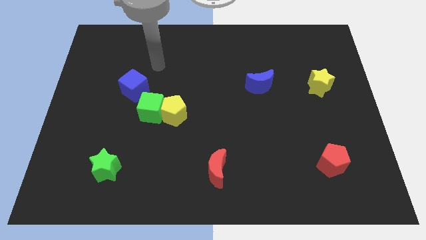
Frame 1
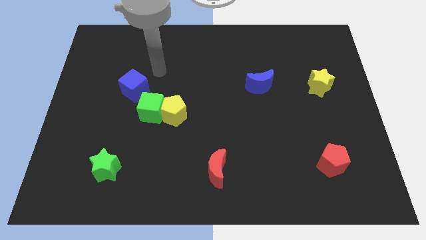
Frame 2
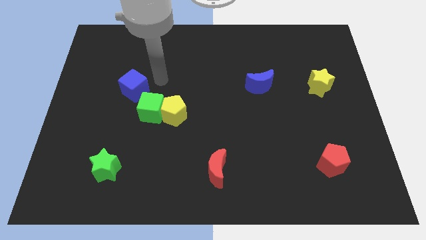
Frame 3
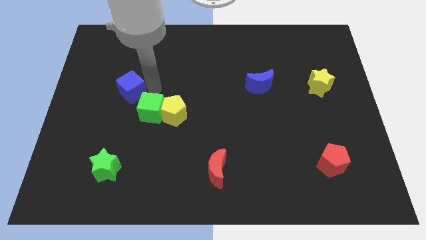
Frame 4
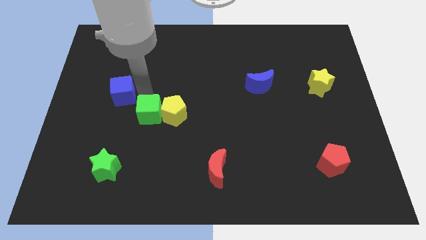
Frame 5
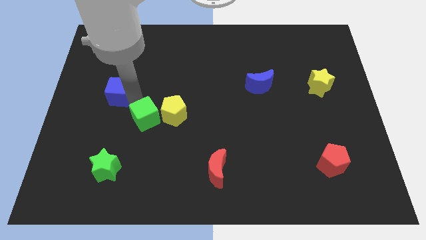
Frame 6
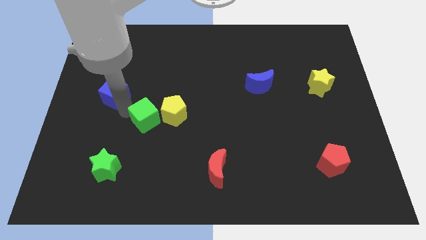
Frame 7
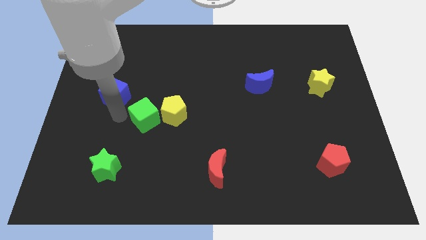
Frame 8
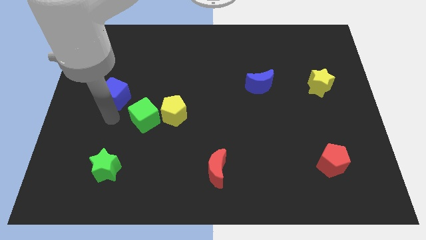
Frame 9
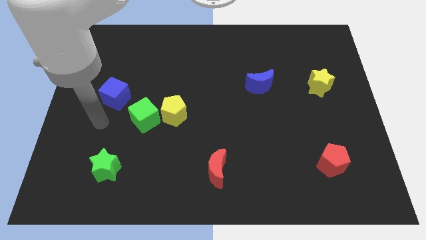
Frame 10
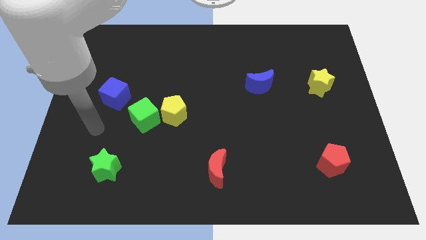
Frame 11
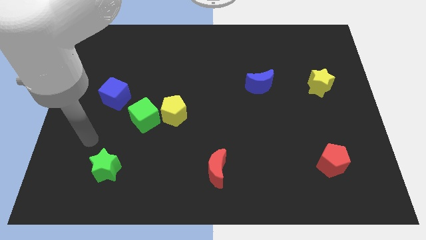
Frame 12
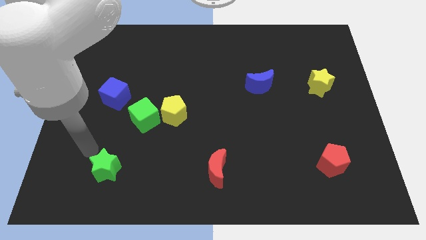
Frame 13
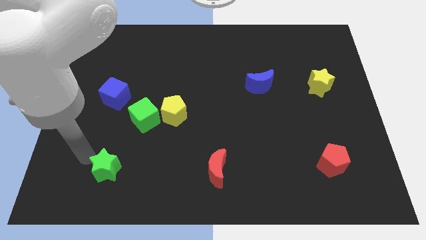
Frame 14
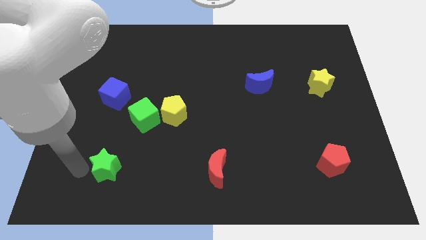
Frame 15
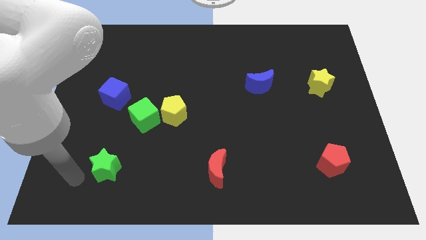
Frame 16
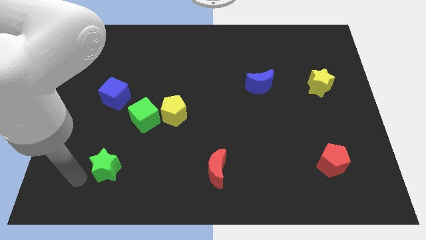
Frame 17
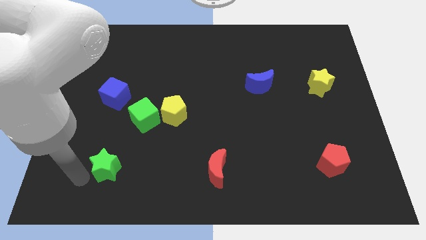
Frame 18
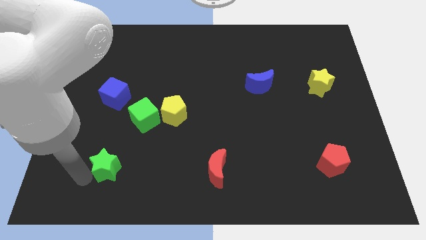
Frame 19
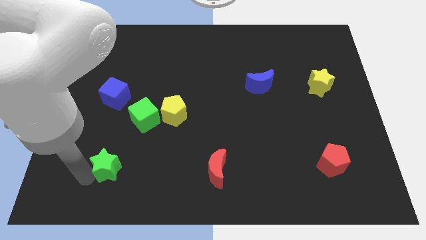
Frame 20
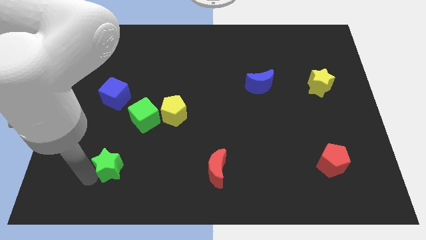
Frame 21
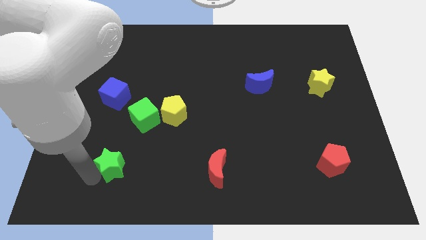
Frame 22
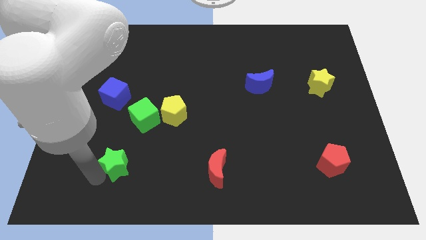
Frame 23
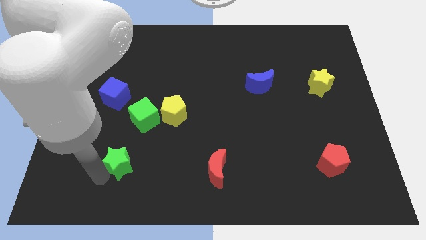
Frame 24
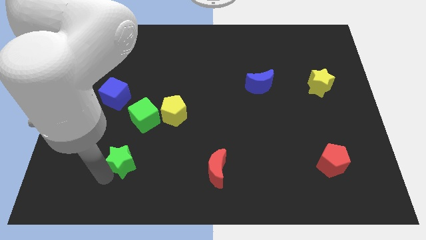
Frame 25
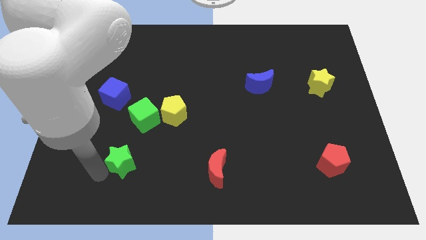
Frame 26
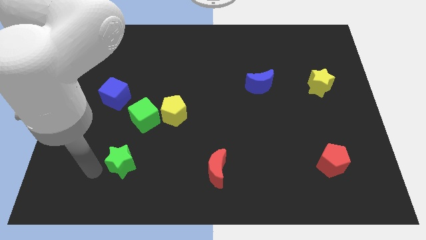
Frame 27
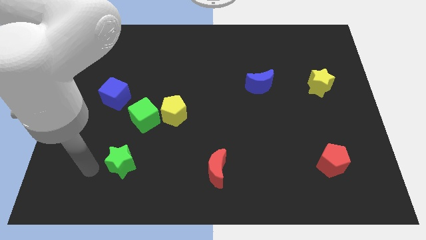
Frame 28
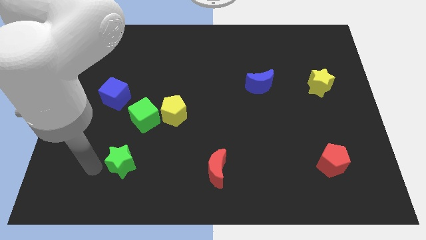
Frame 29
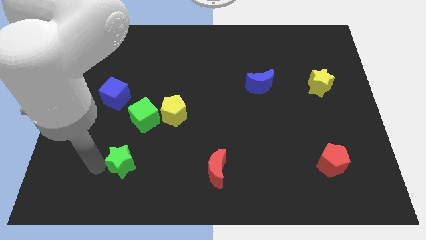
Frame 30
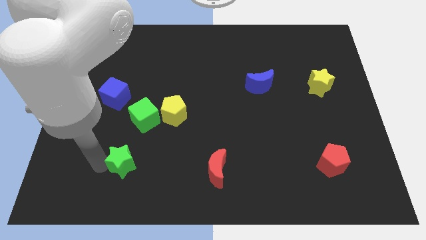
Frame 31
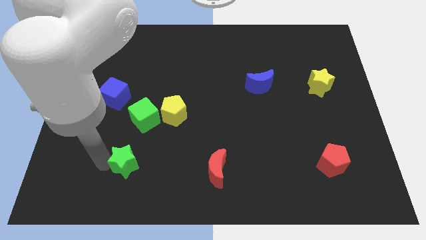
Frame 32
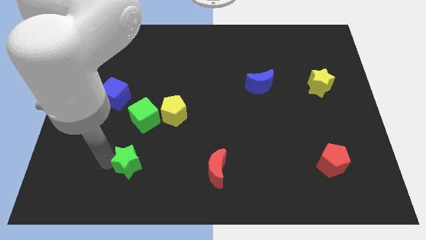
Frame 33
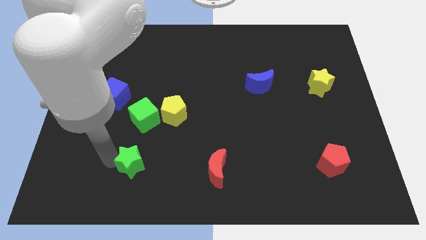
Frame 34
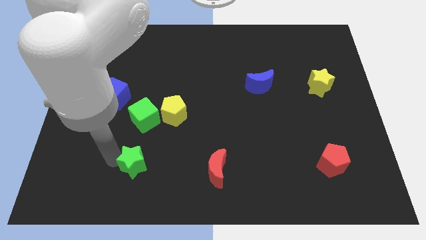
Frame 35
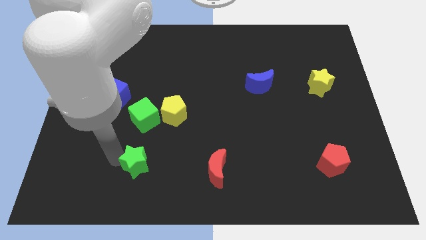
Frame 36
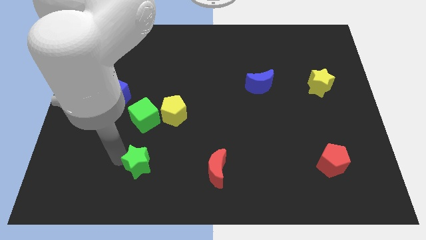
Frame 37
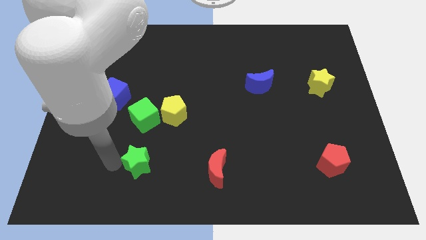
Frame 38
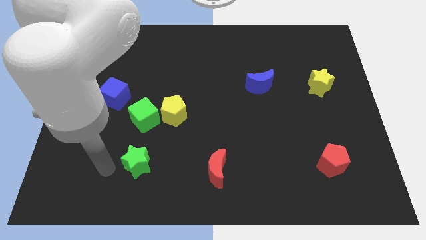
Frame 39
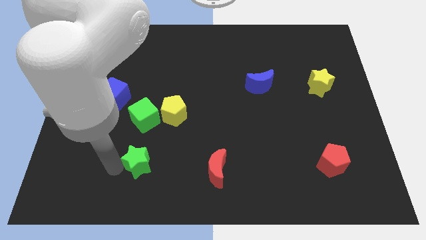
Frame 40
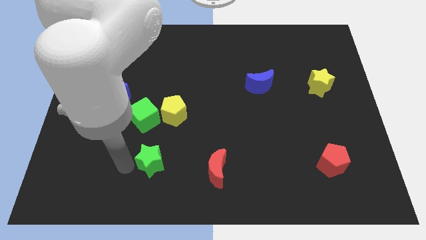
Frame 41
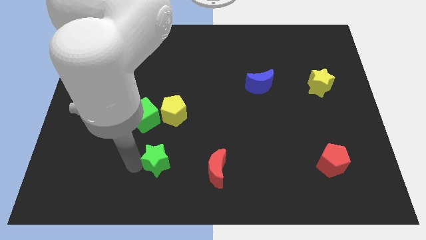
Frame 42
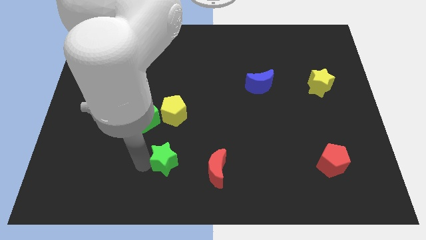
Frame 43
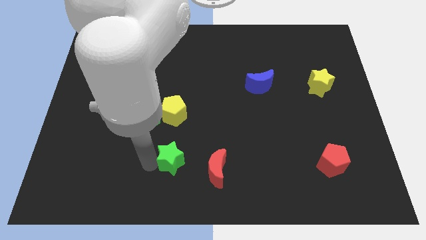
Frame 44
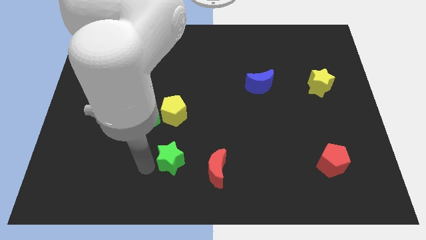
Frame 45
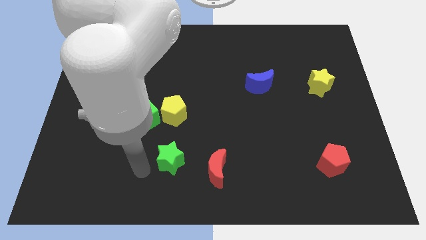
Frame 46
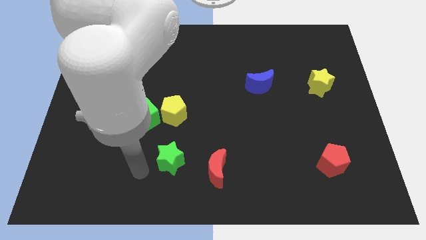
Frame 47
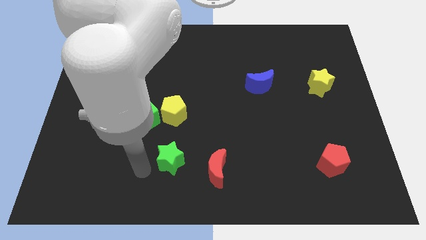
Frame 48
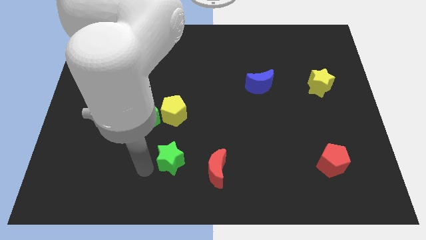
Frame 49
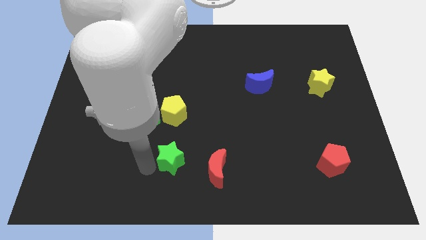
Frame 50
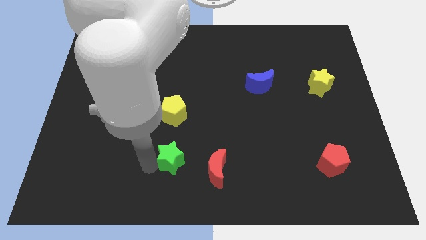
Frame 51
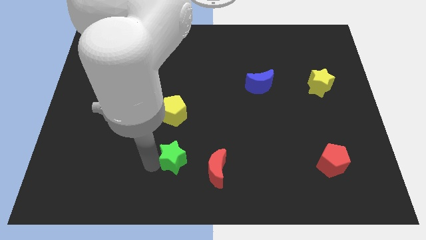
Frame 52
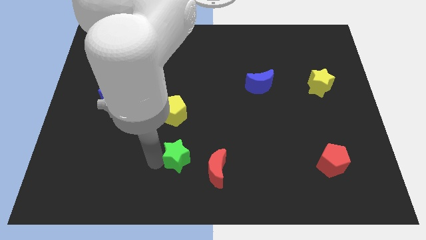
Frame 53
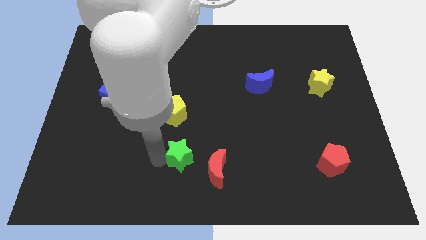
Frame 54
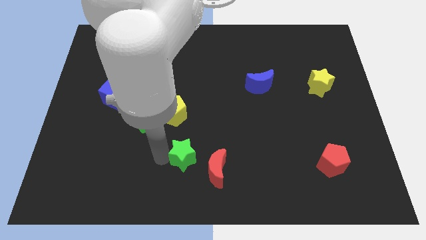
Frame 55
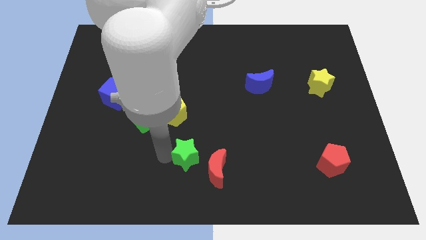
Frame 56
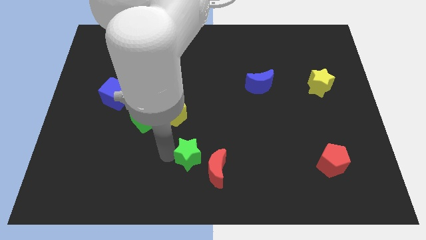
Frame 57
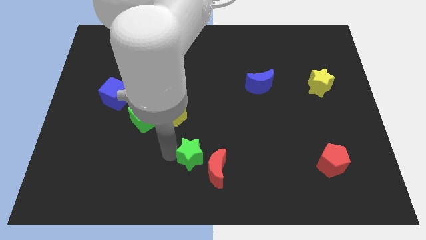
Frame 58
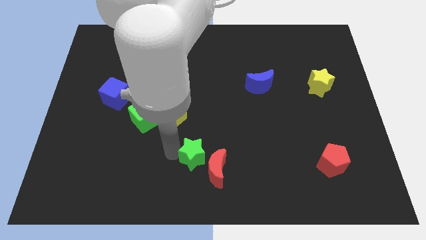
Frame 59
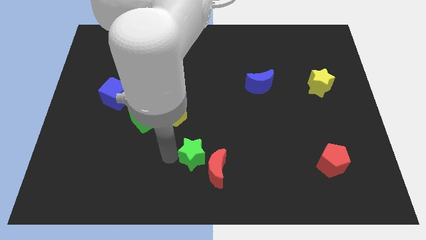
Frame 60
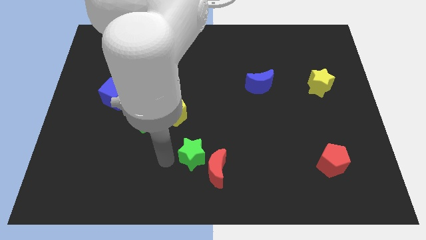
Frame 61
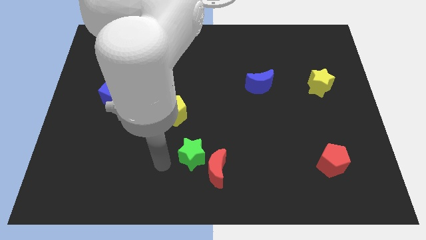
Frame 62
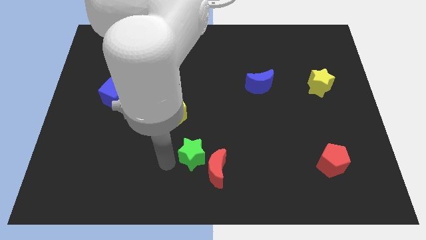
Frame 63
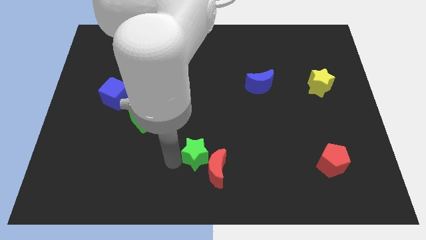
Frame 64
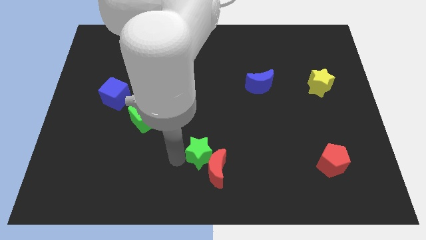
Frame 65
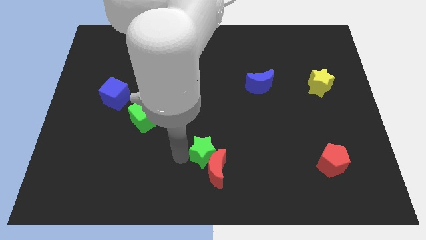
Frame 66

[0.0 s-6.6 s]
move the green star to the right

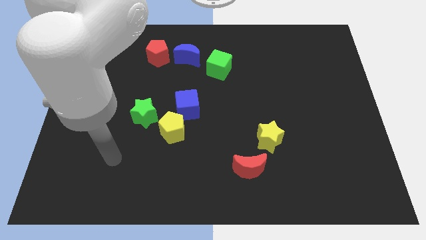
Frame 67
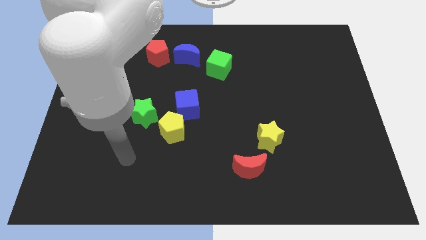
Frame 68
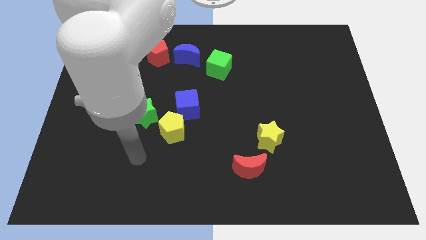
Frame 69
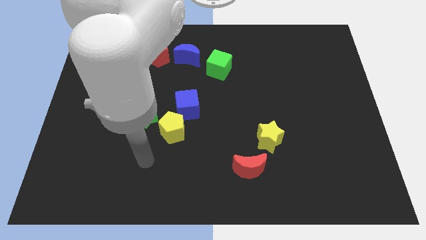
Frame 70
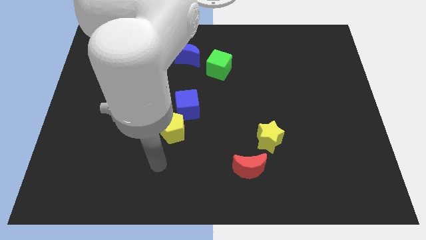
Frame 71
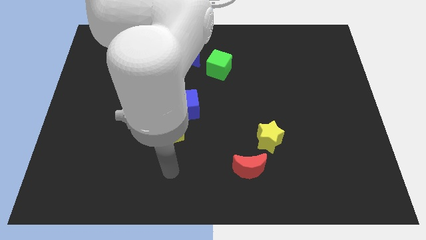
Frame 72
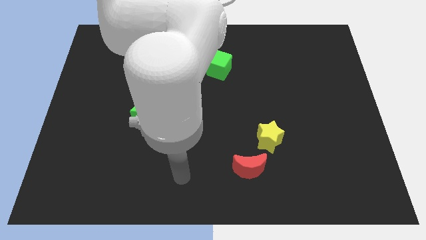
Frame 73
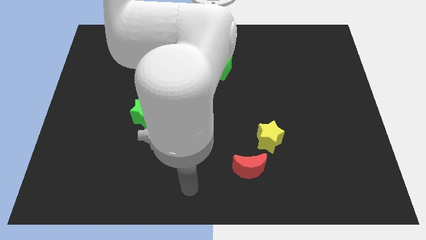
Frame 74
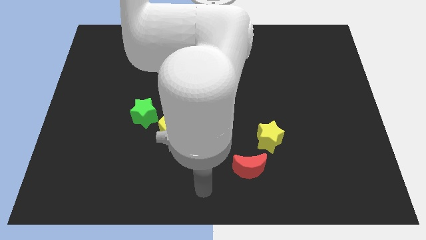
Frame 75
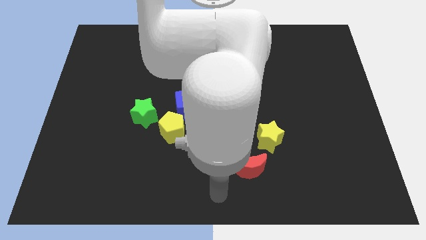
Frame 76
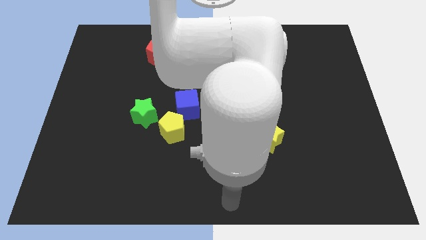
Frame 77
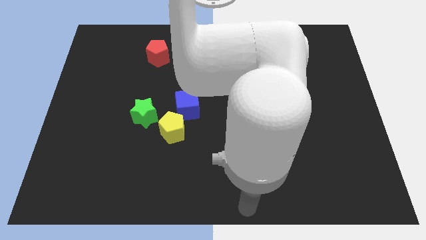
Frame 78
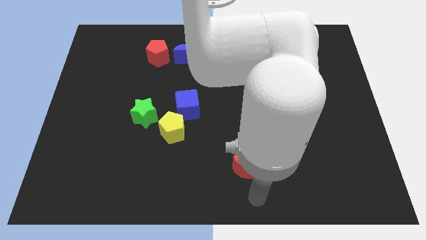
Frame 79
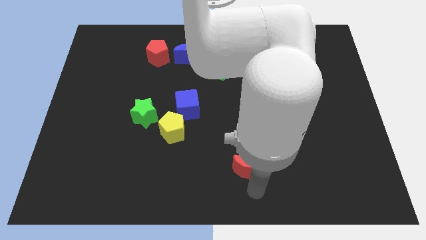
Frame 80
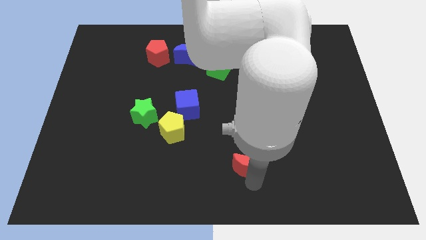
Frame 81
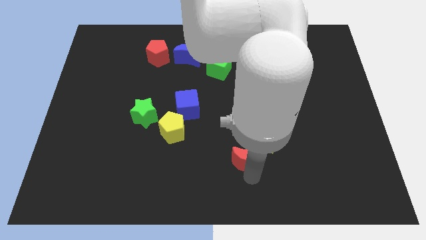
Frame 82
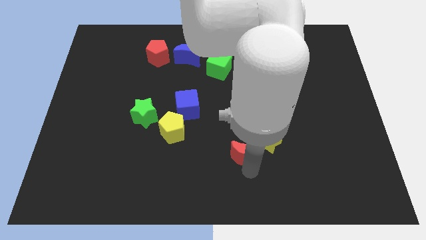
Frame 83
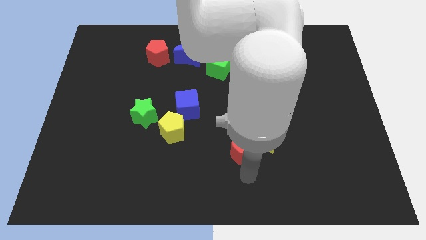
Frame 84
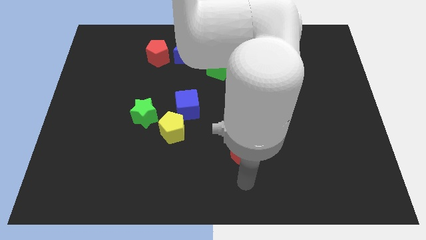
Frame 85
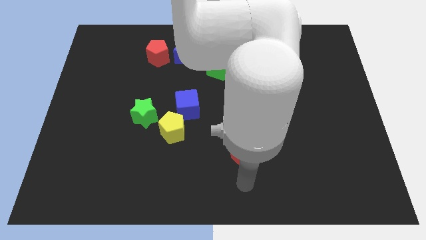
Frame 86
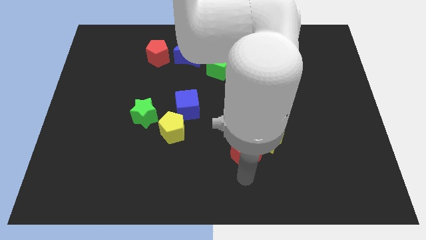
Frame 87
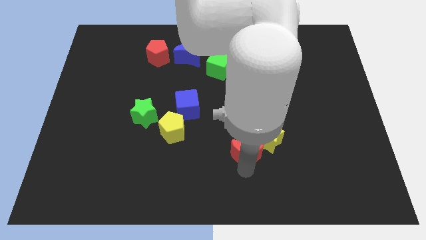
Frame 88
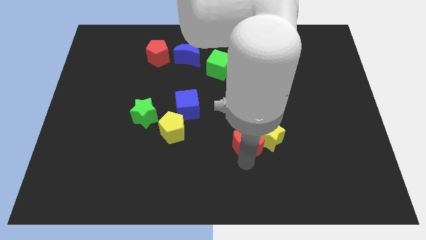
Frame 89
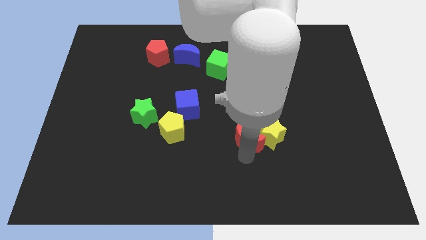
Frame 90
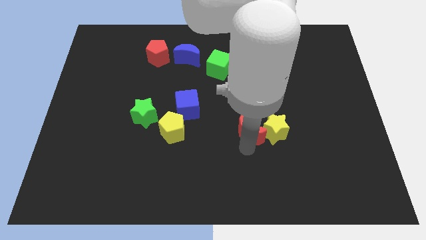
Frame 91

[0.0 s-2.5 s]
move the red moon upwards slightly
